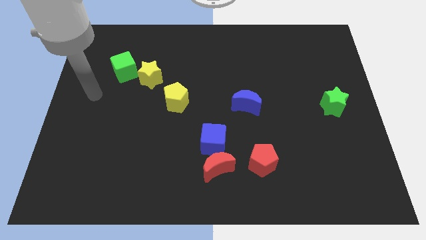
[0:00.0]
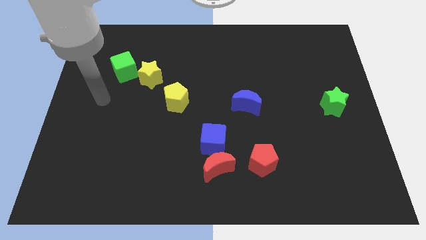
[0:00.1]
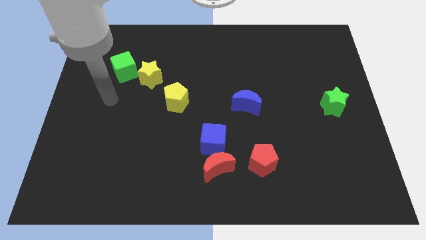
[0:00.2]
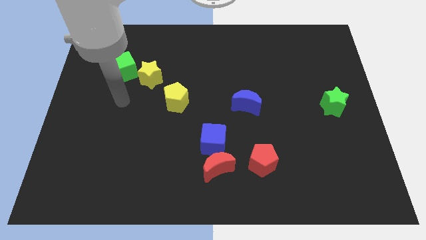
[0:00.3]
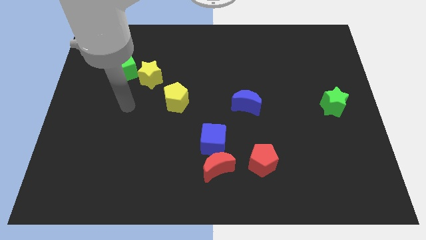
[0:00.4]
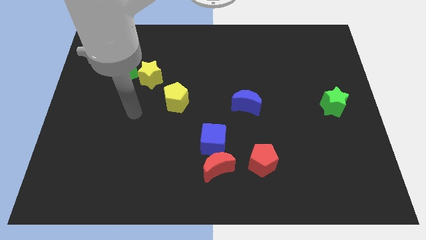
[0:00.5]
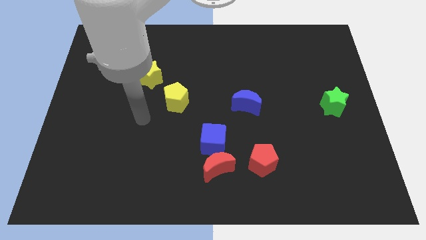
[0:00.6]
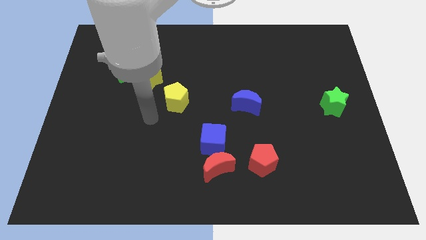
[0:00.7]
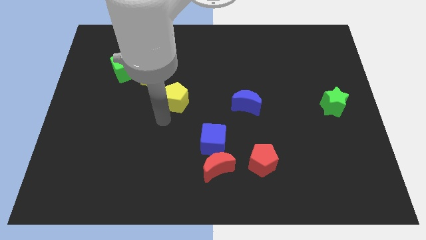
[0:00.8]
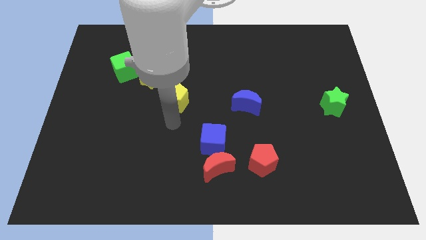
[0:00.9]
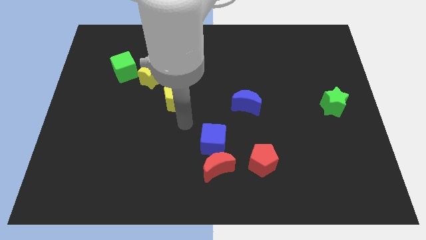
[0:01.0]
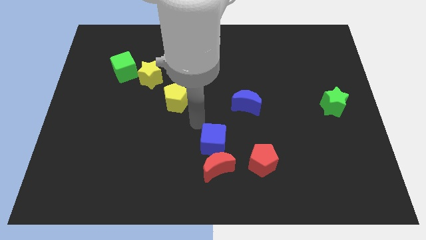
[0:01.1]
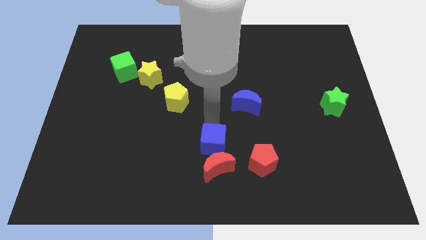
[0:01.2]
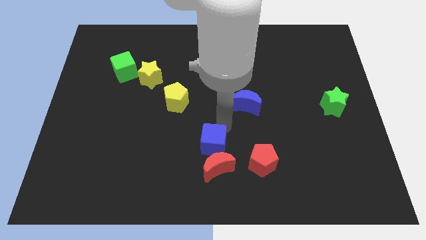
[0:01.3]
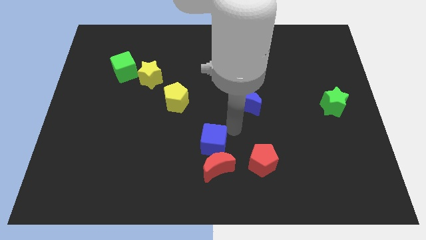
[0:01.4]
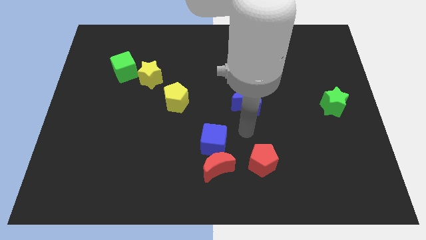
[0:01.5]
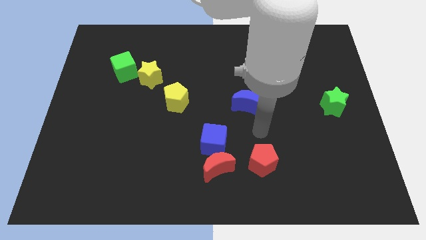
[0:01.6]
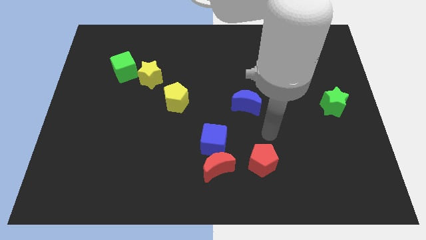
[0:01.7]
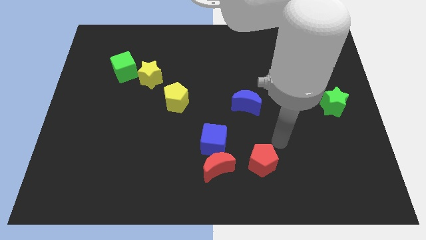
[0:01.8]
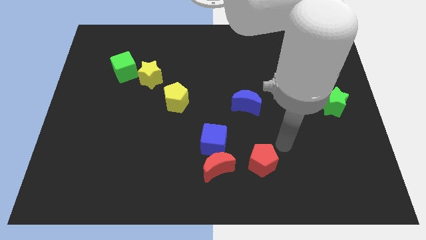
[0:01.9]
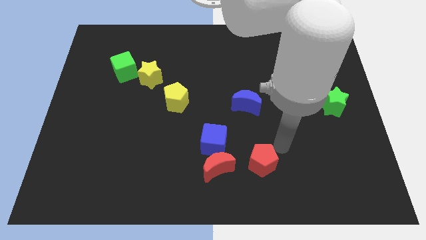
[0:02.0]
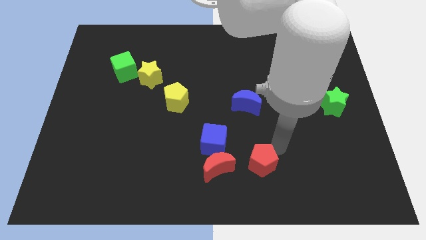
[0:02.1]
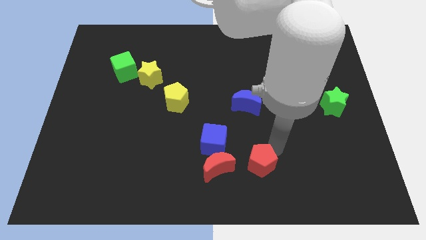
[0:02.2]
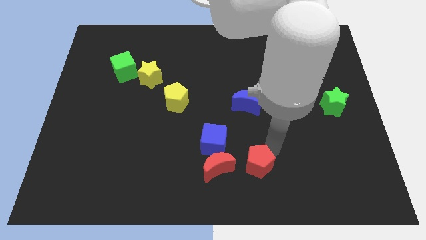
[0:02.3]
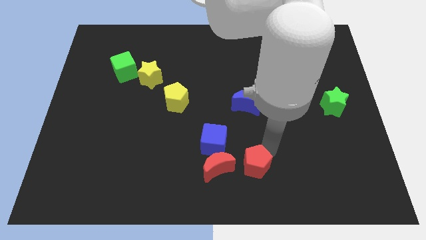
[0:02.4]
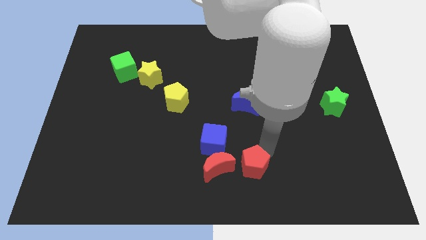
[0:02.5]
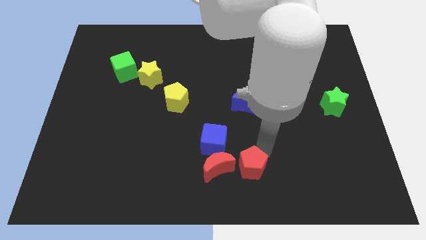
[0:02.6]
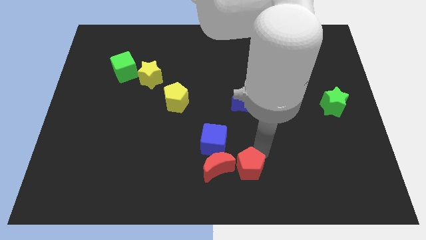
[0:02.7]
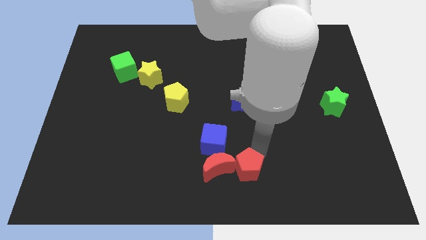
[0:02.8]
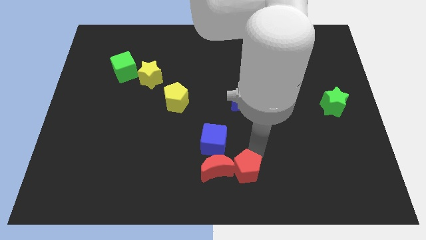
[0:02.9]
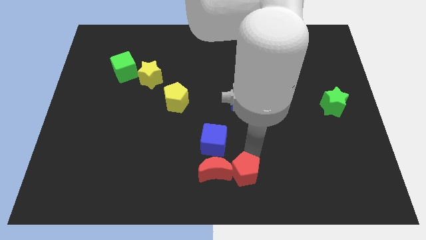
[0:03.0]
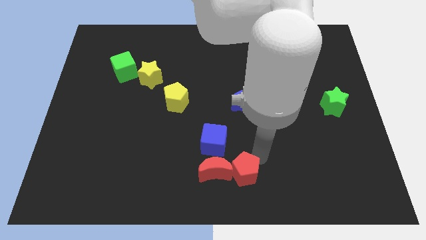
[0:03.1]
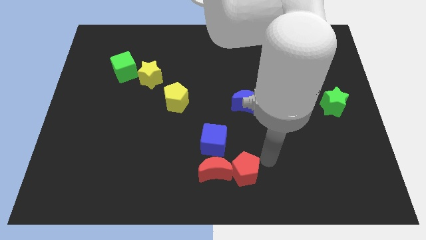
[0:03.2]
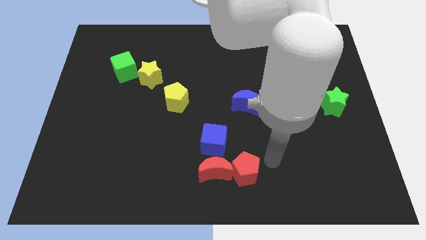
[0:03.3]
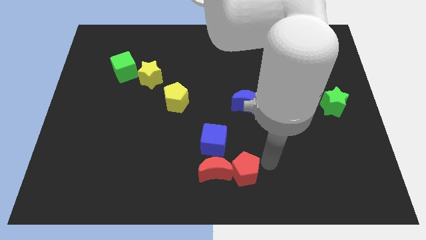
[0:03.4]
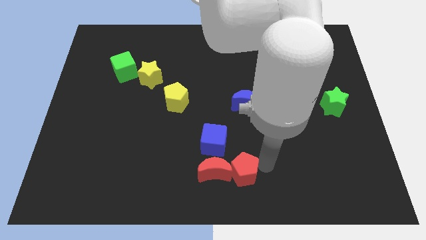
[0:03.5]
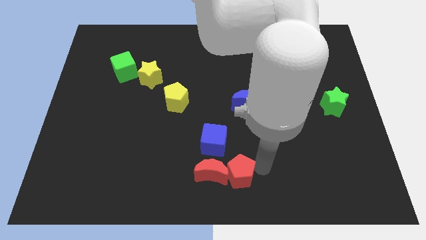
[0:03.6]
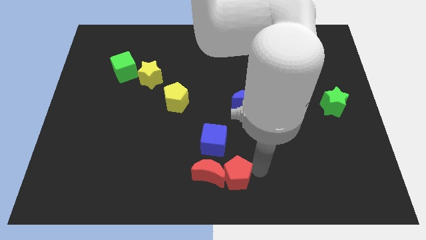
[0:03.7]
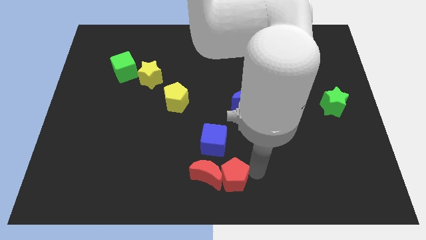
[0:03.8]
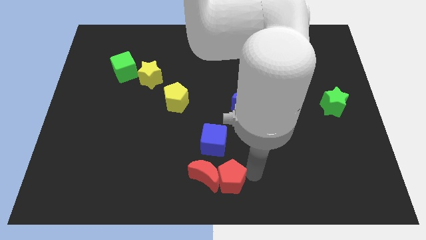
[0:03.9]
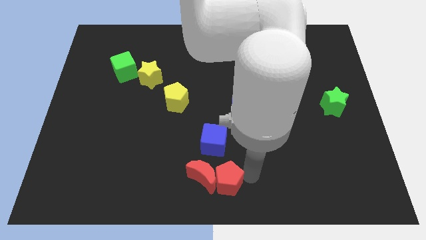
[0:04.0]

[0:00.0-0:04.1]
push the red pentagon to the left somewhat

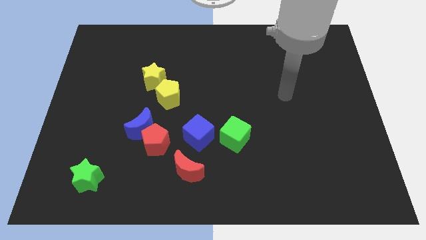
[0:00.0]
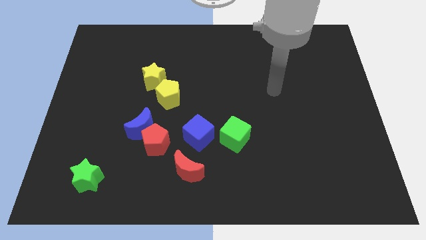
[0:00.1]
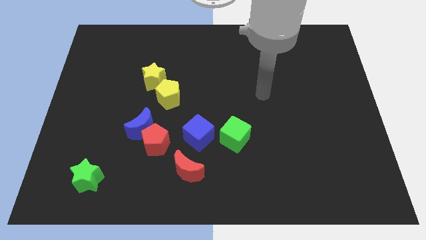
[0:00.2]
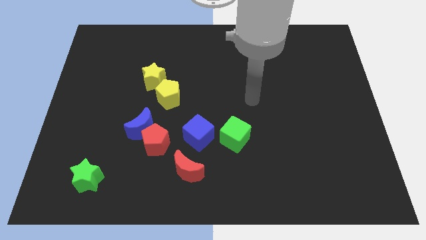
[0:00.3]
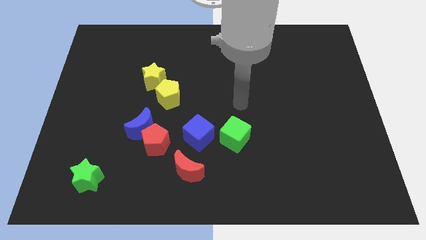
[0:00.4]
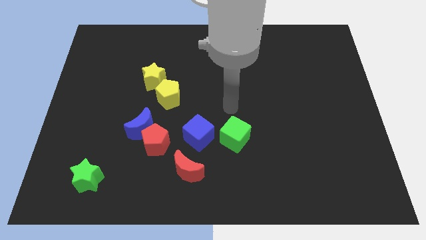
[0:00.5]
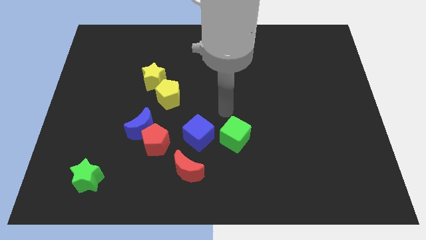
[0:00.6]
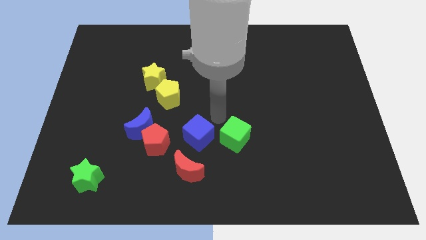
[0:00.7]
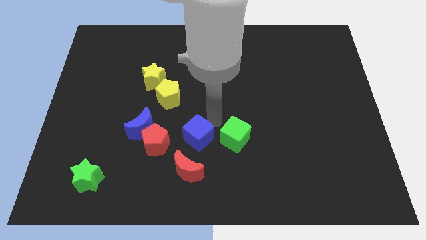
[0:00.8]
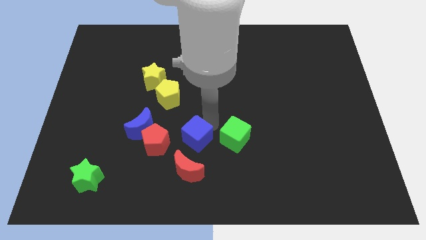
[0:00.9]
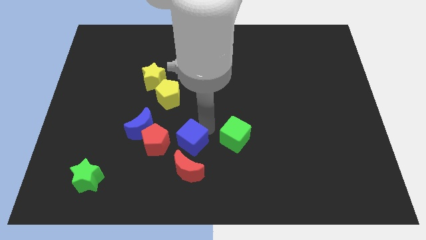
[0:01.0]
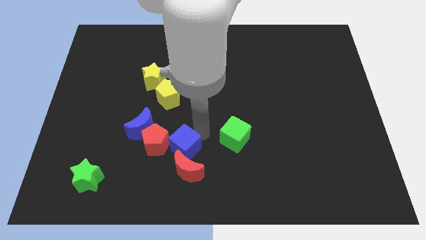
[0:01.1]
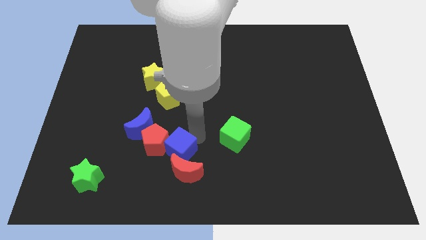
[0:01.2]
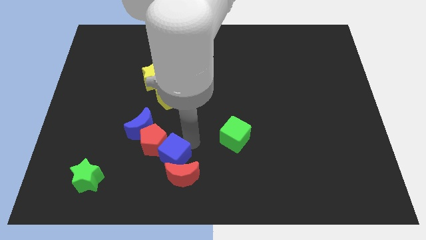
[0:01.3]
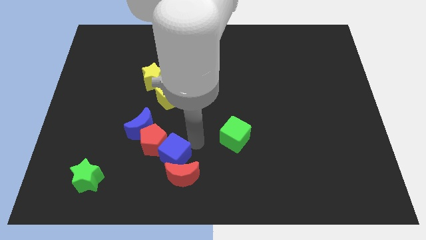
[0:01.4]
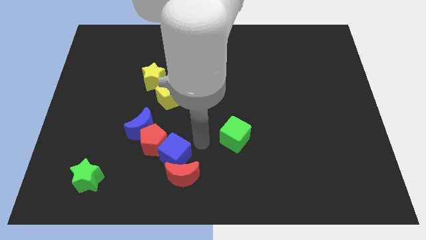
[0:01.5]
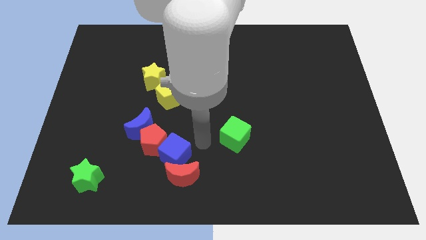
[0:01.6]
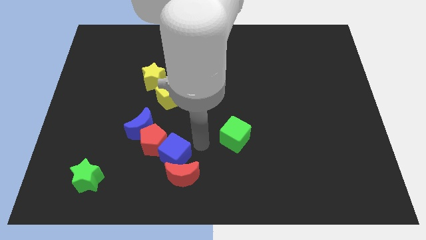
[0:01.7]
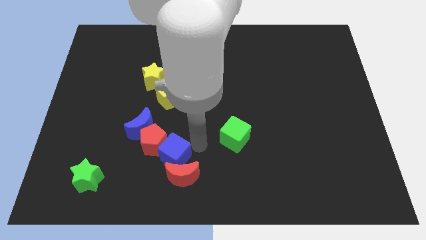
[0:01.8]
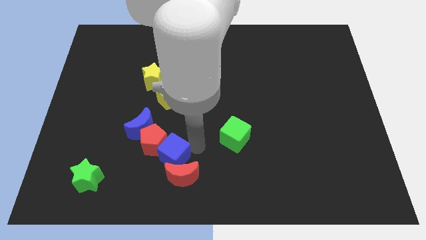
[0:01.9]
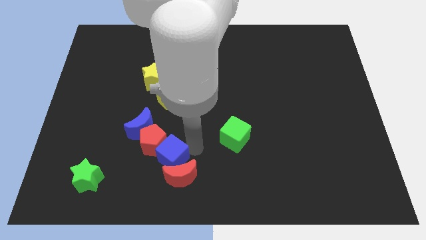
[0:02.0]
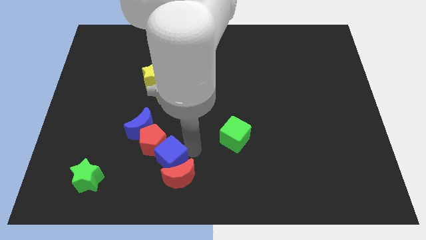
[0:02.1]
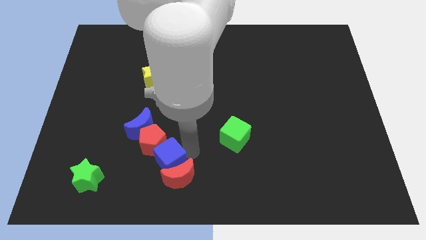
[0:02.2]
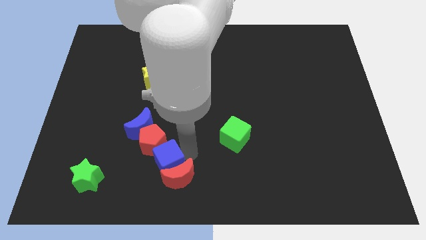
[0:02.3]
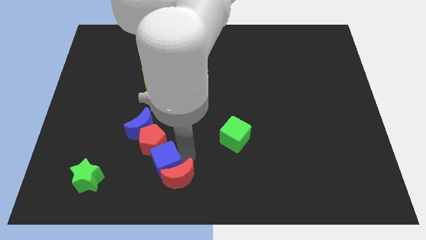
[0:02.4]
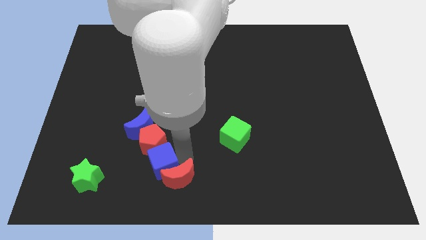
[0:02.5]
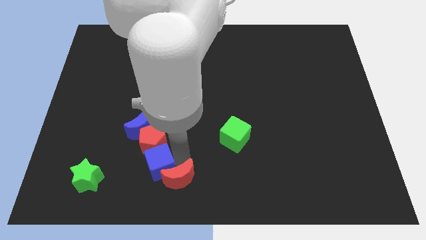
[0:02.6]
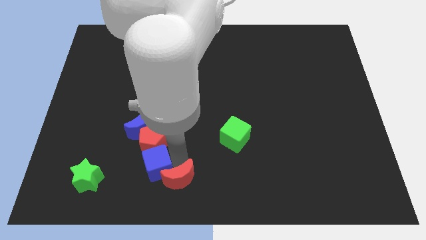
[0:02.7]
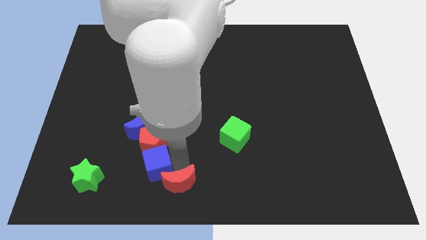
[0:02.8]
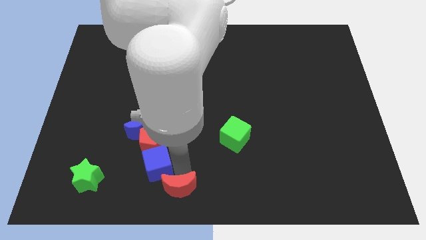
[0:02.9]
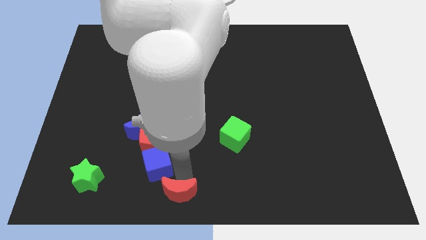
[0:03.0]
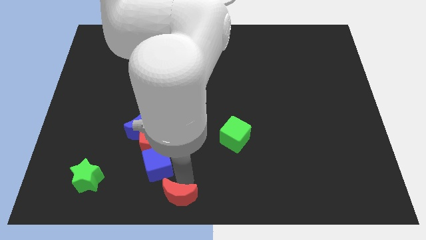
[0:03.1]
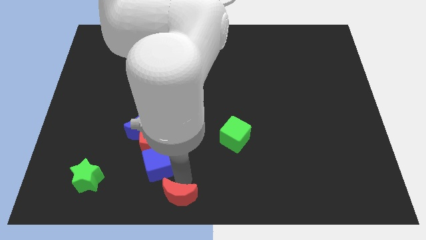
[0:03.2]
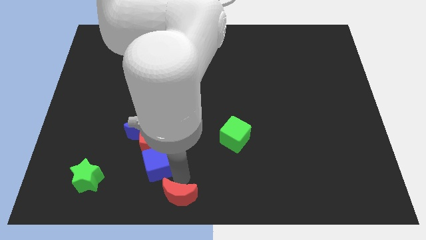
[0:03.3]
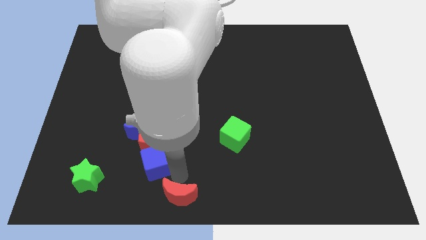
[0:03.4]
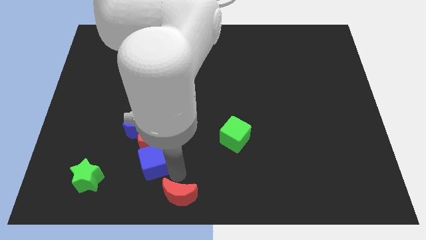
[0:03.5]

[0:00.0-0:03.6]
push the blue cube a little left
